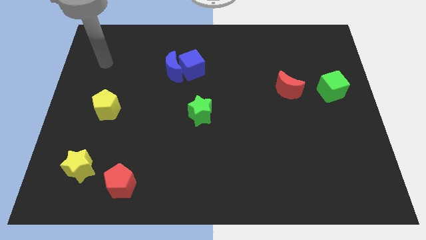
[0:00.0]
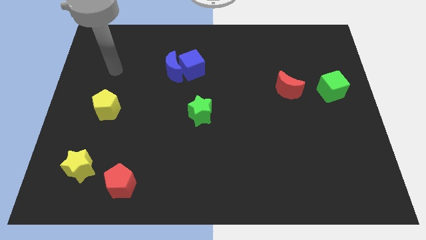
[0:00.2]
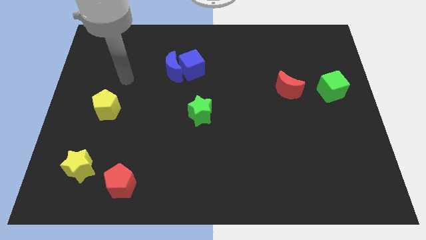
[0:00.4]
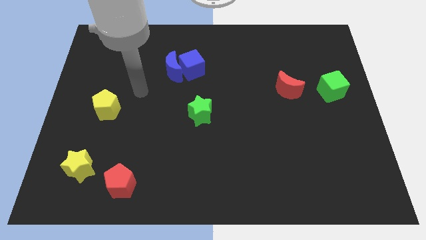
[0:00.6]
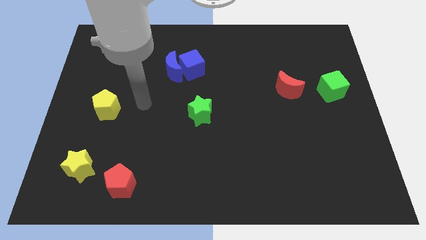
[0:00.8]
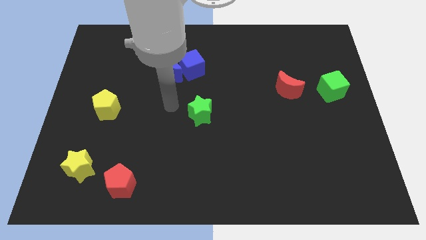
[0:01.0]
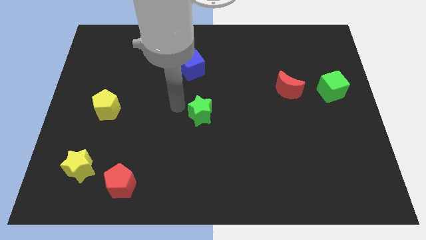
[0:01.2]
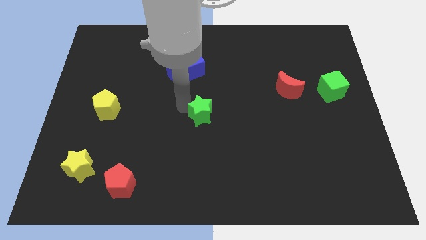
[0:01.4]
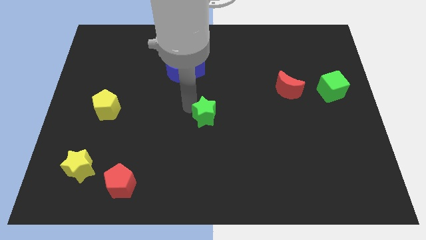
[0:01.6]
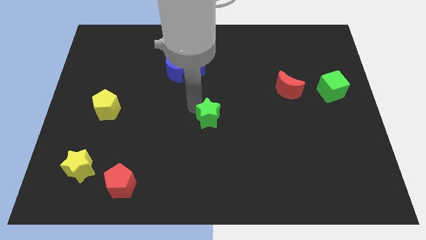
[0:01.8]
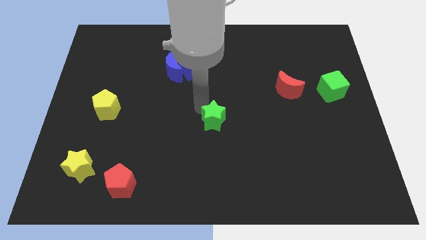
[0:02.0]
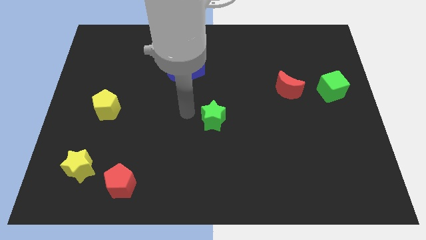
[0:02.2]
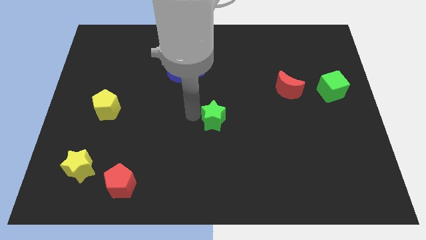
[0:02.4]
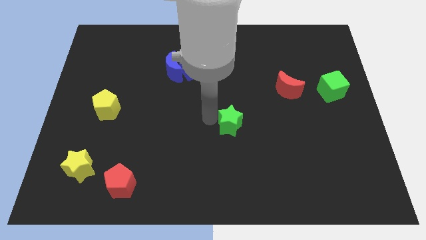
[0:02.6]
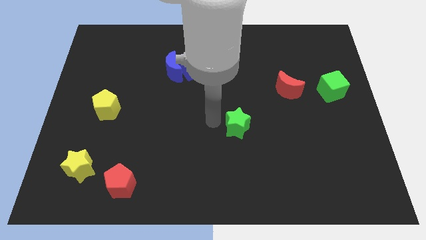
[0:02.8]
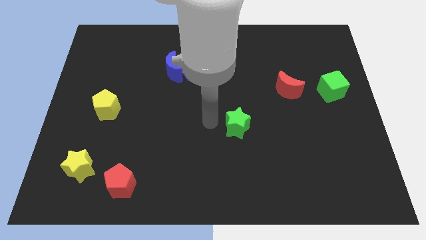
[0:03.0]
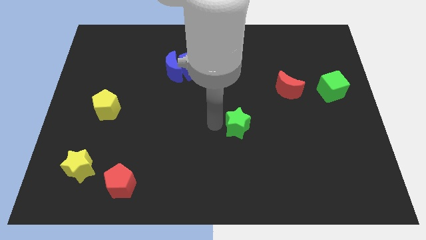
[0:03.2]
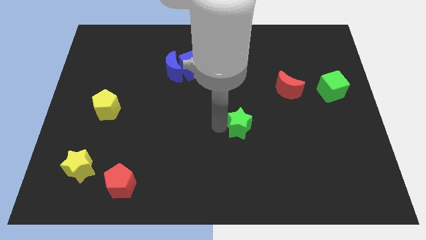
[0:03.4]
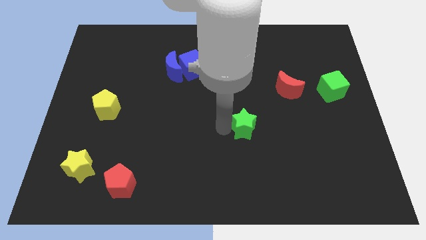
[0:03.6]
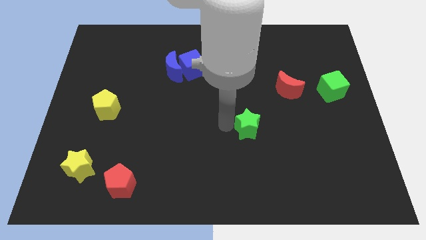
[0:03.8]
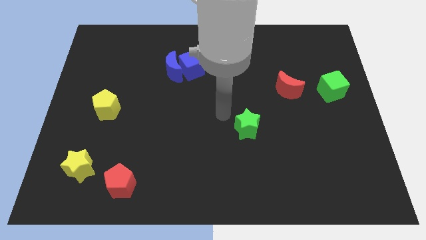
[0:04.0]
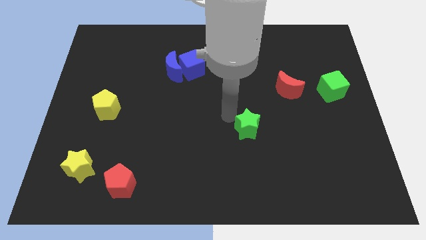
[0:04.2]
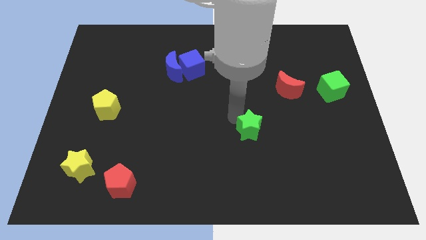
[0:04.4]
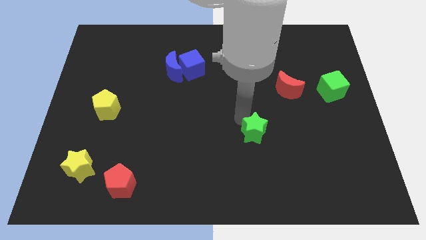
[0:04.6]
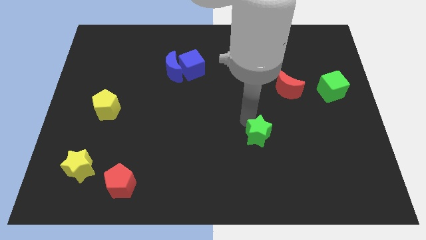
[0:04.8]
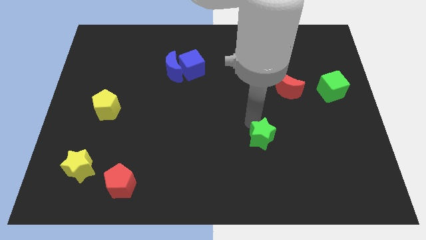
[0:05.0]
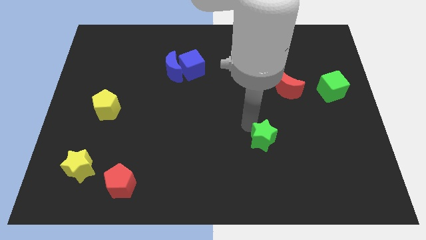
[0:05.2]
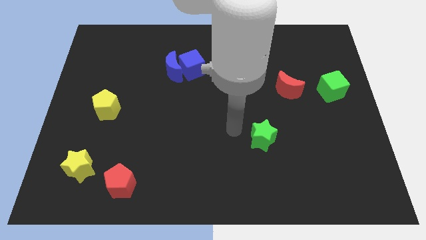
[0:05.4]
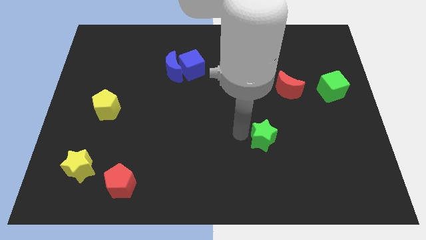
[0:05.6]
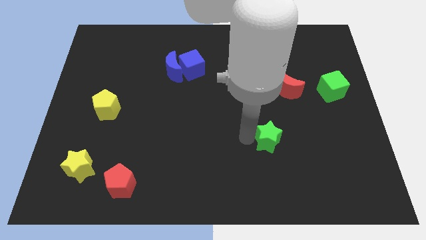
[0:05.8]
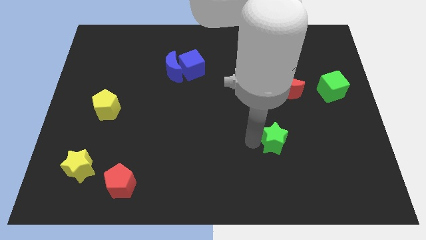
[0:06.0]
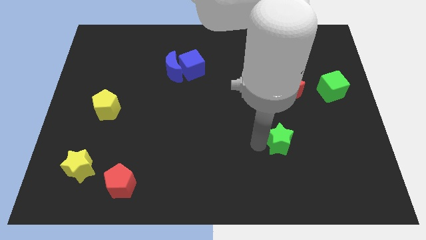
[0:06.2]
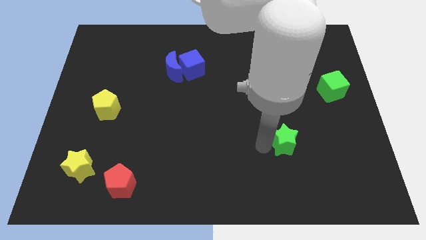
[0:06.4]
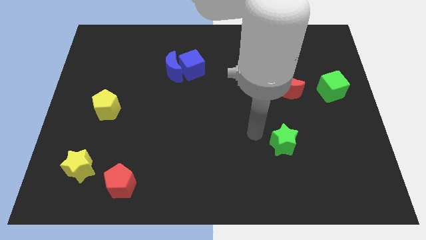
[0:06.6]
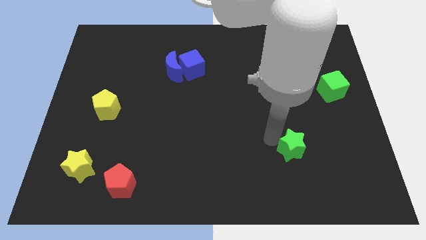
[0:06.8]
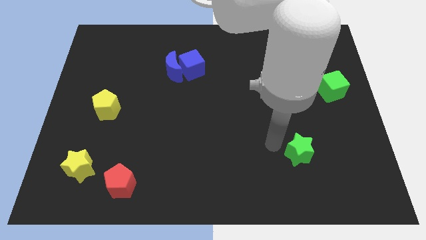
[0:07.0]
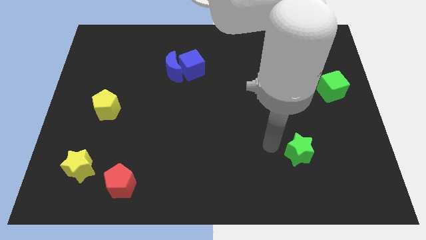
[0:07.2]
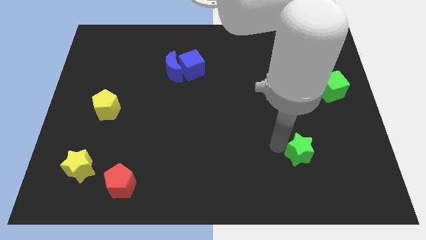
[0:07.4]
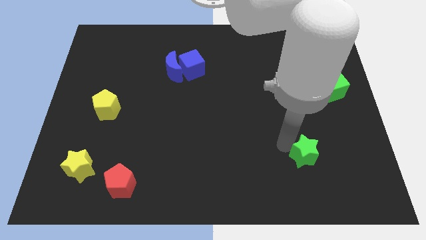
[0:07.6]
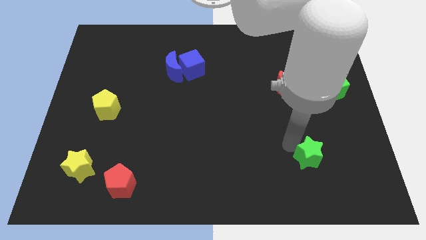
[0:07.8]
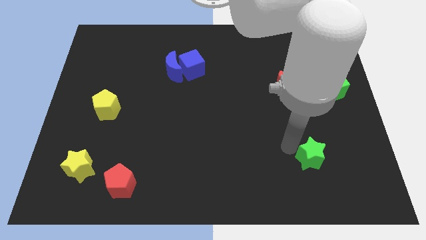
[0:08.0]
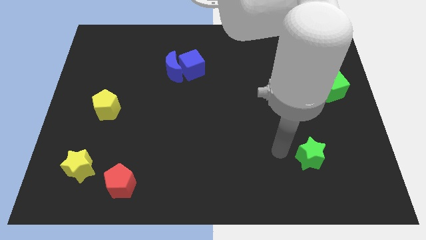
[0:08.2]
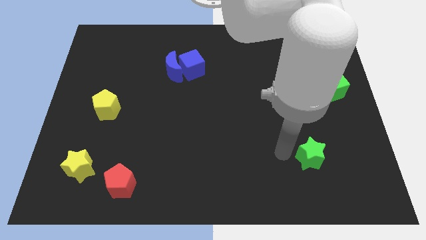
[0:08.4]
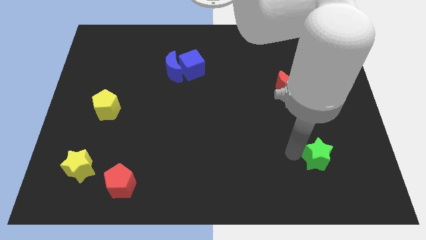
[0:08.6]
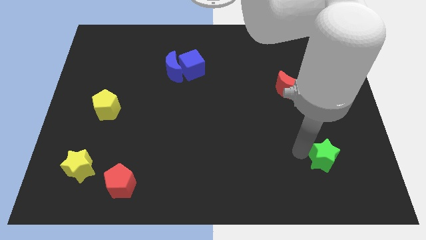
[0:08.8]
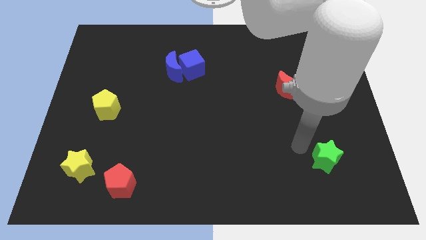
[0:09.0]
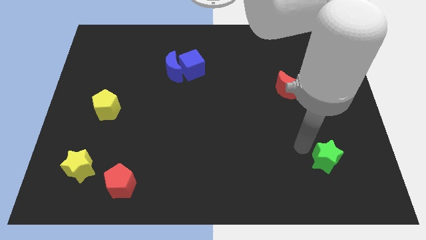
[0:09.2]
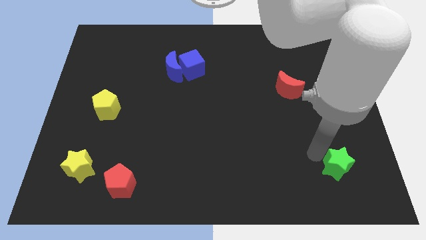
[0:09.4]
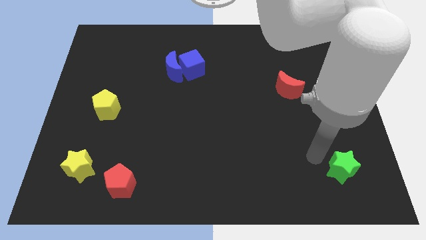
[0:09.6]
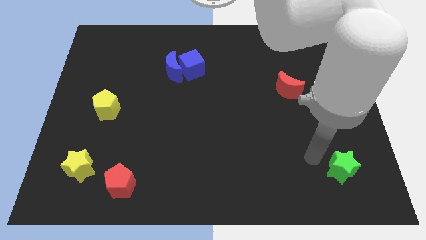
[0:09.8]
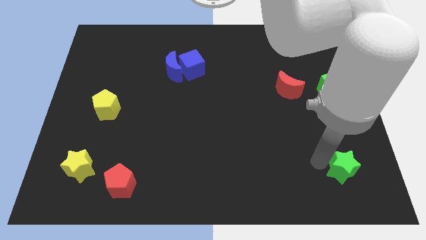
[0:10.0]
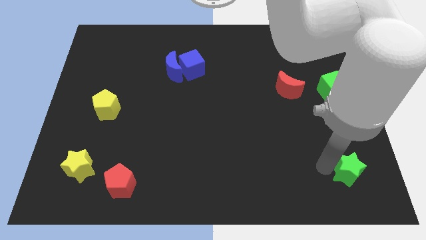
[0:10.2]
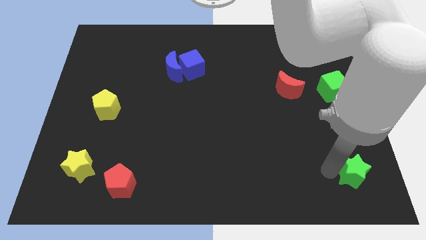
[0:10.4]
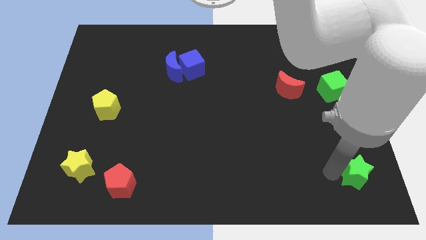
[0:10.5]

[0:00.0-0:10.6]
move the green star to the bottom right corner

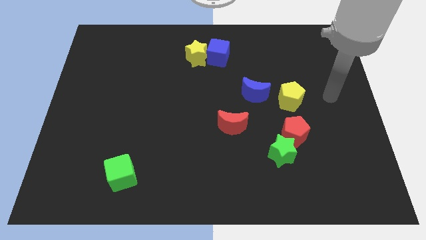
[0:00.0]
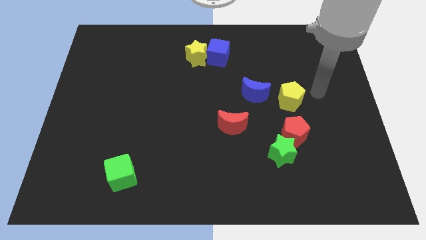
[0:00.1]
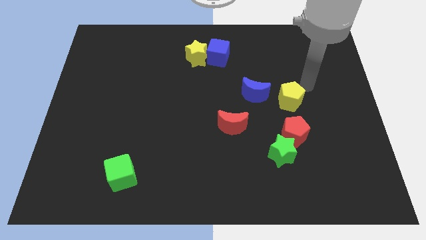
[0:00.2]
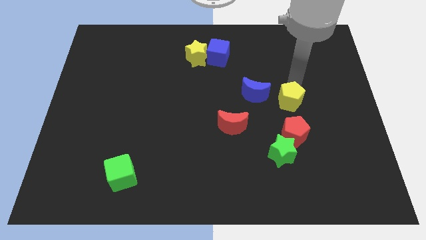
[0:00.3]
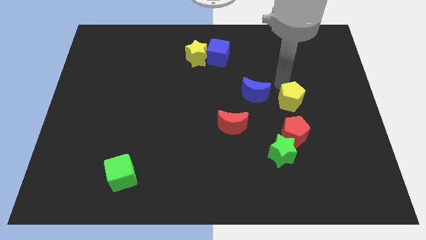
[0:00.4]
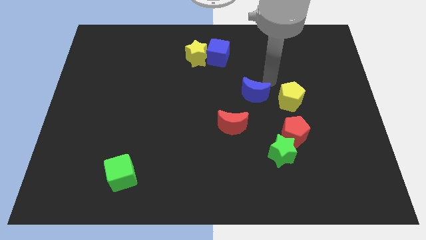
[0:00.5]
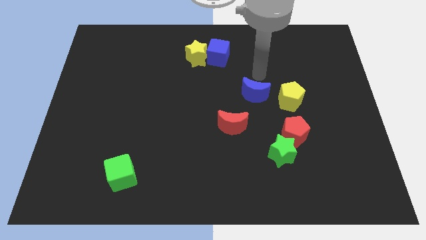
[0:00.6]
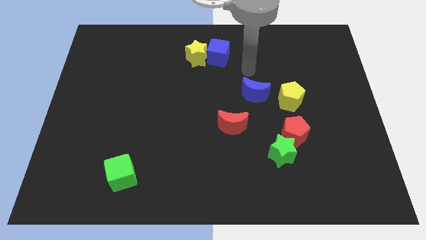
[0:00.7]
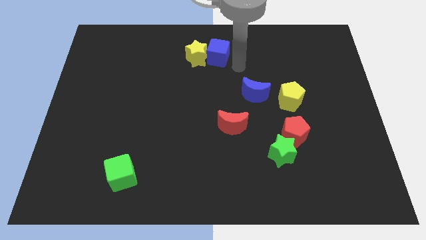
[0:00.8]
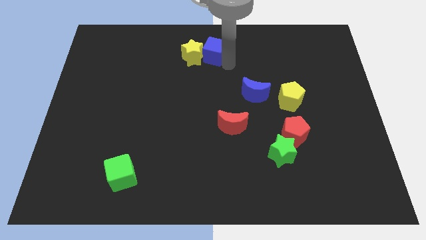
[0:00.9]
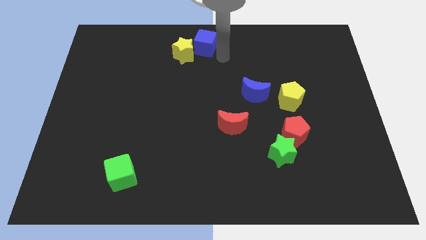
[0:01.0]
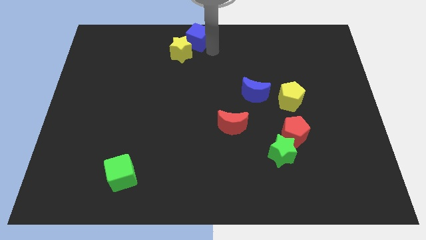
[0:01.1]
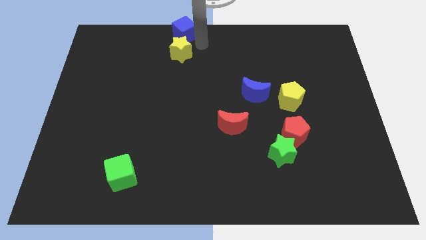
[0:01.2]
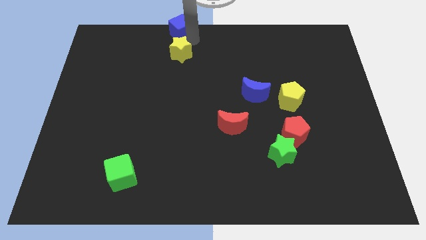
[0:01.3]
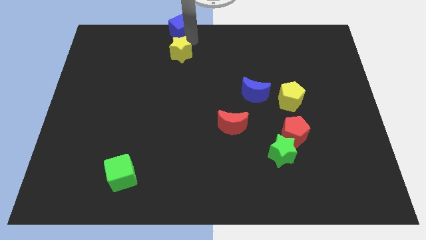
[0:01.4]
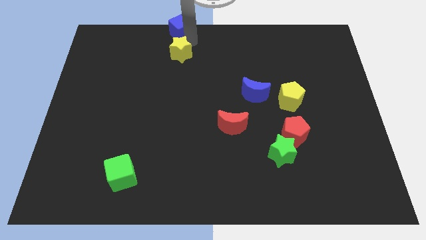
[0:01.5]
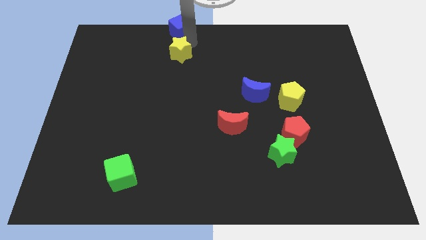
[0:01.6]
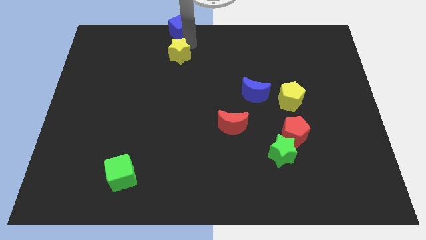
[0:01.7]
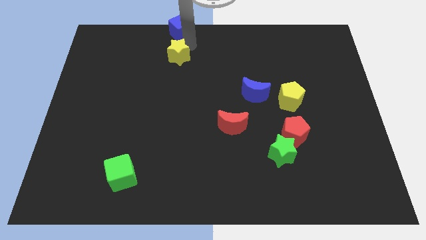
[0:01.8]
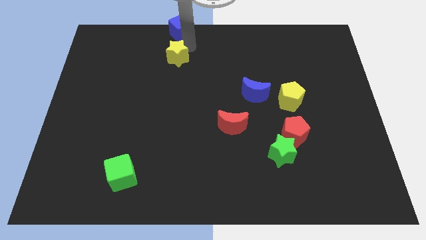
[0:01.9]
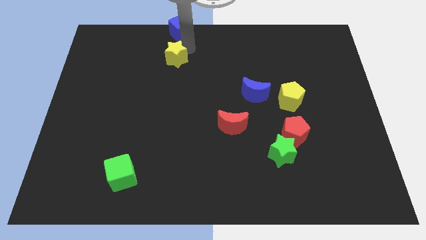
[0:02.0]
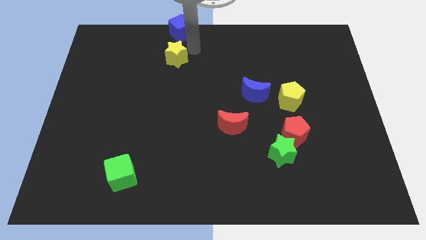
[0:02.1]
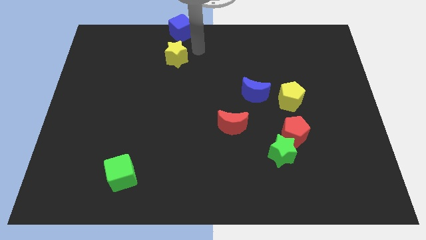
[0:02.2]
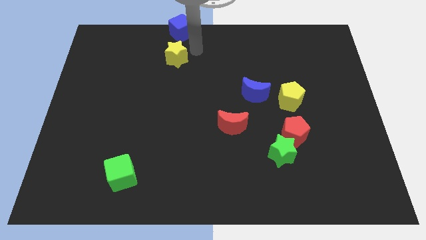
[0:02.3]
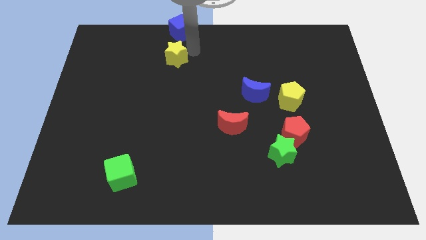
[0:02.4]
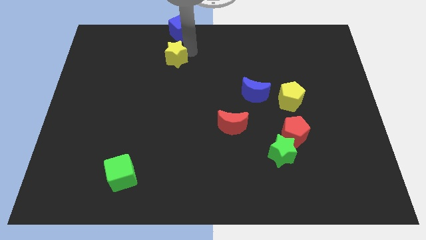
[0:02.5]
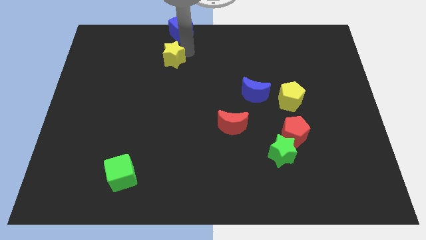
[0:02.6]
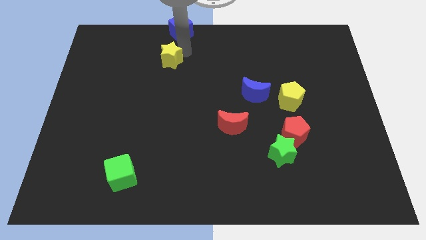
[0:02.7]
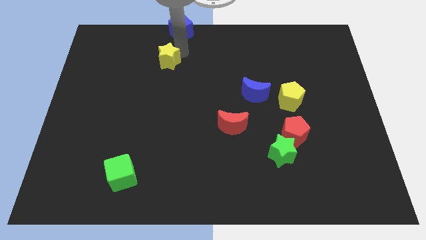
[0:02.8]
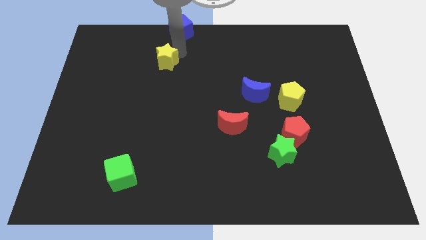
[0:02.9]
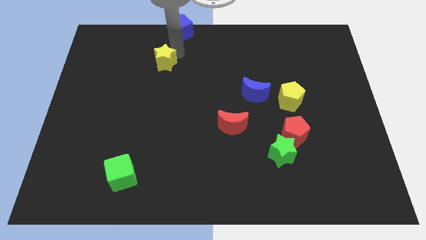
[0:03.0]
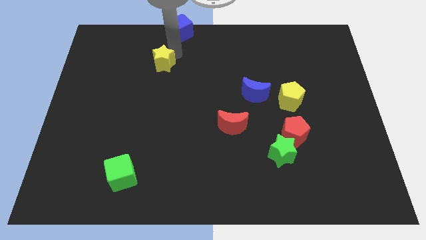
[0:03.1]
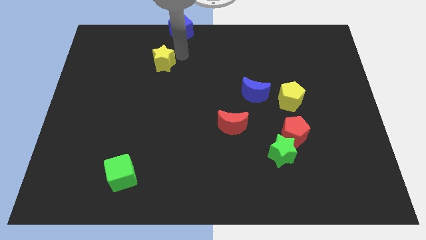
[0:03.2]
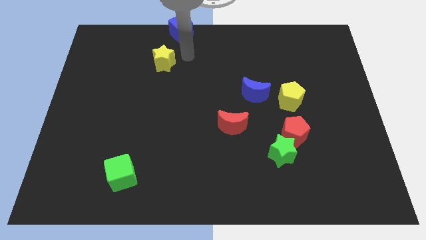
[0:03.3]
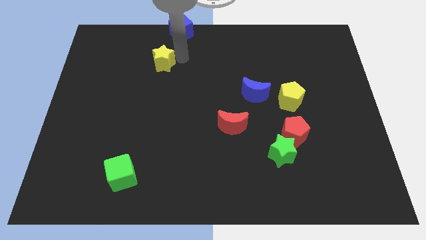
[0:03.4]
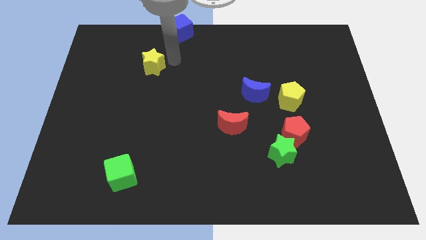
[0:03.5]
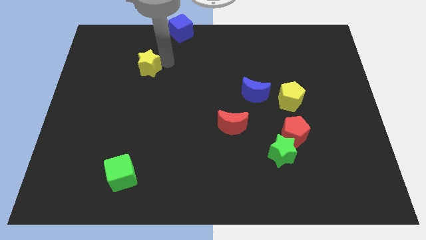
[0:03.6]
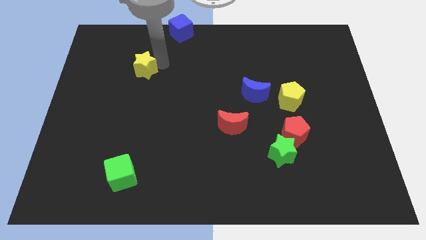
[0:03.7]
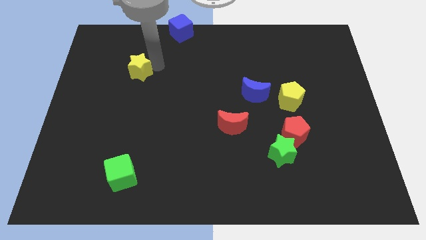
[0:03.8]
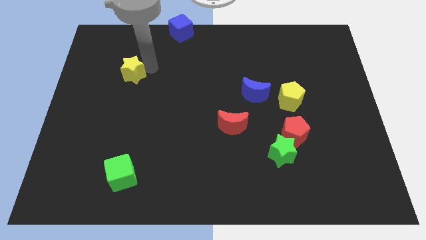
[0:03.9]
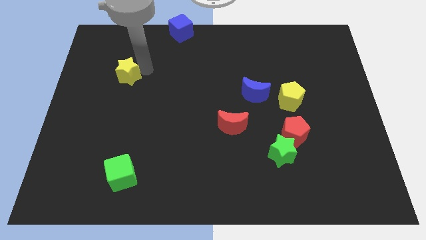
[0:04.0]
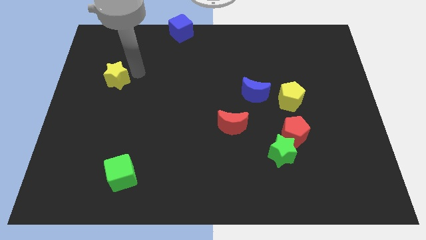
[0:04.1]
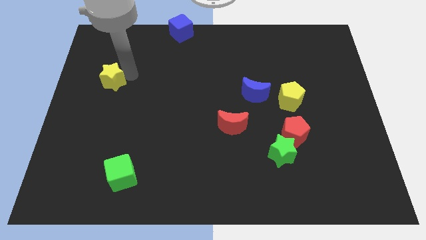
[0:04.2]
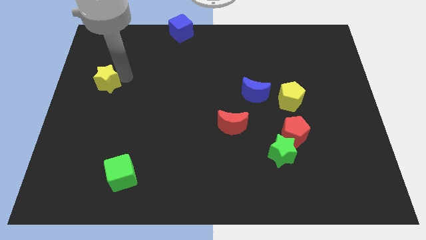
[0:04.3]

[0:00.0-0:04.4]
slide the yellow star to the center left
